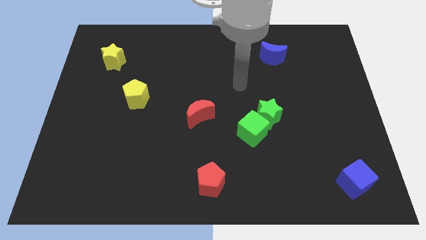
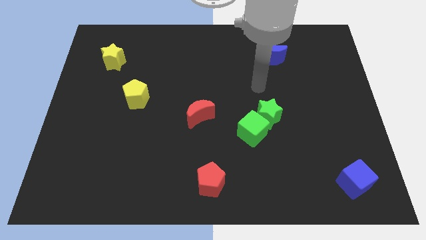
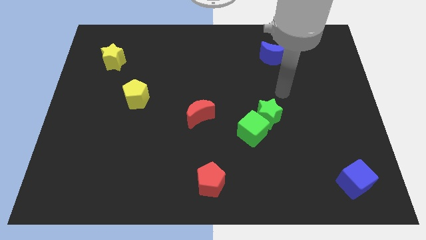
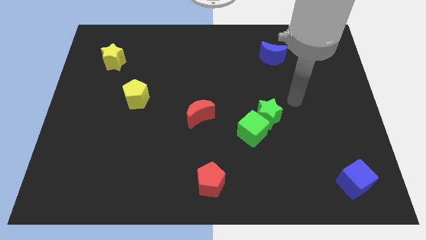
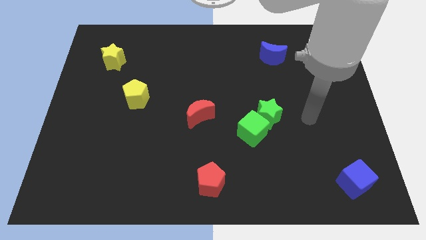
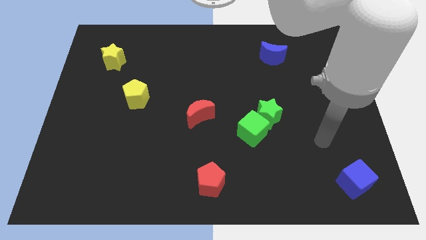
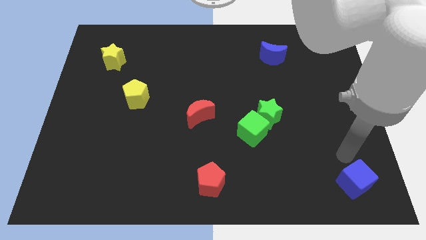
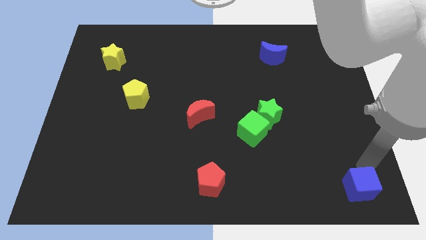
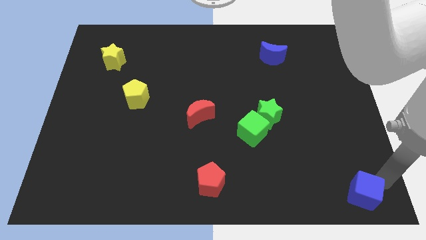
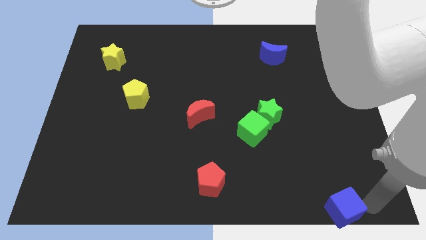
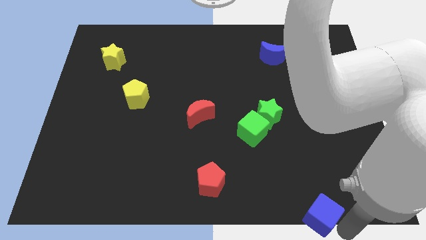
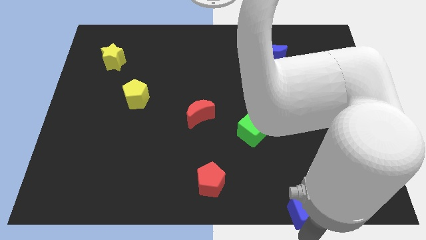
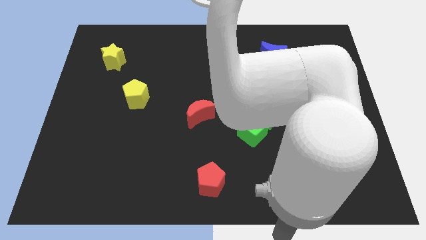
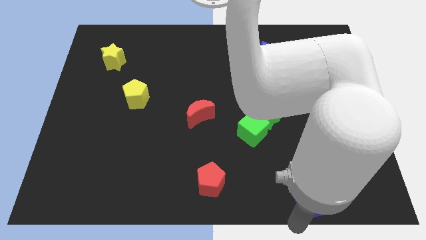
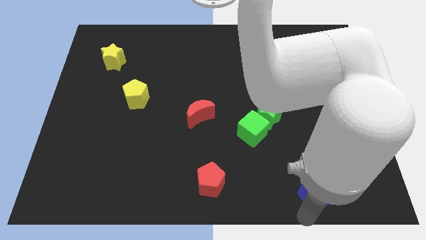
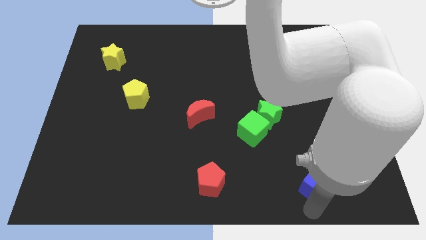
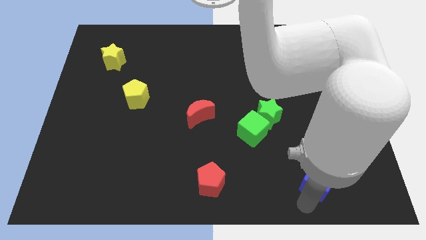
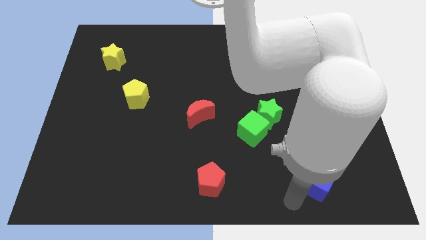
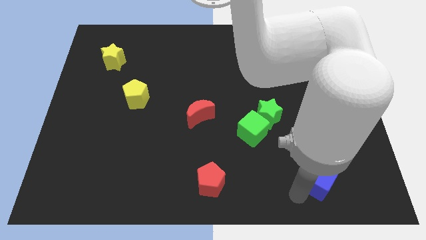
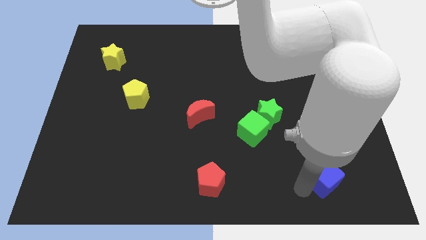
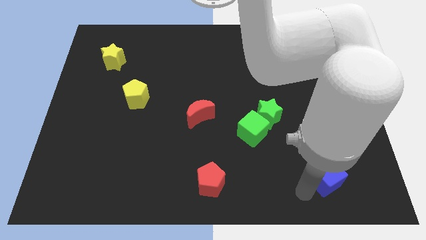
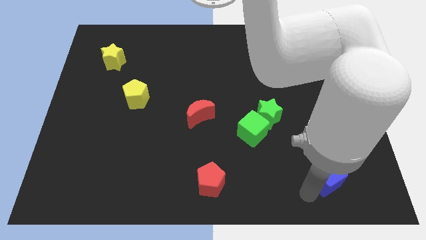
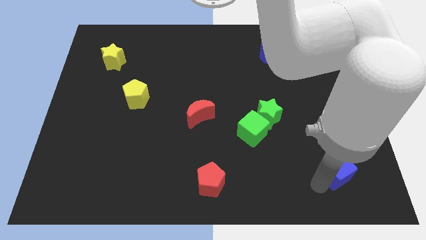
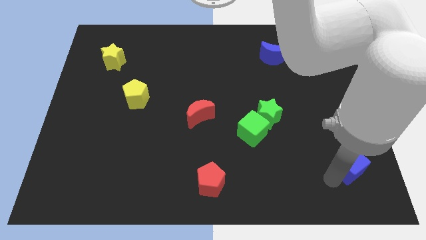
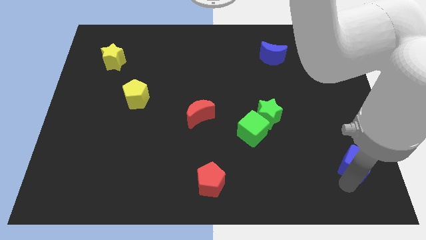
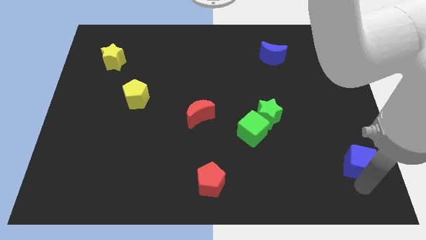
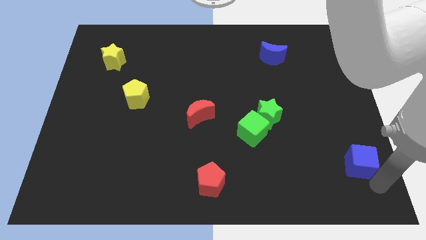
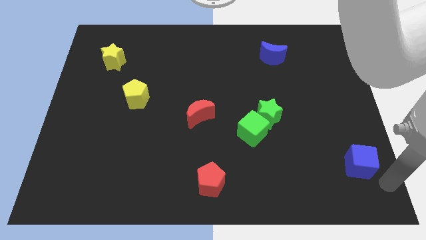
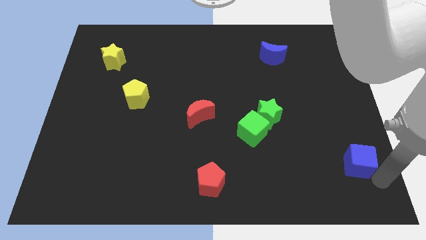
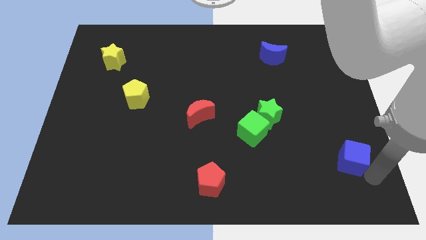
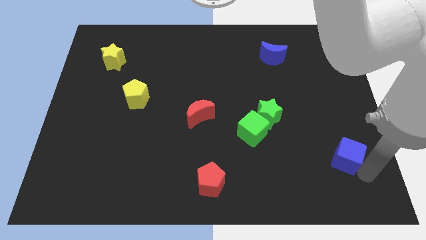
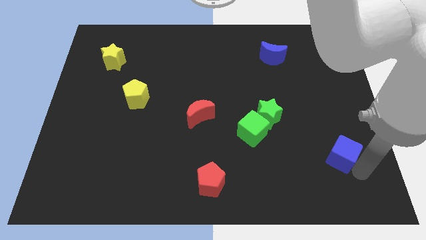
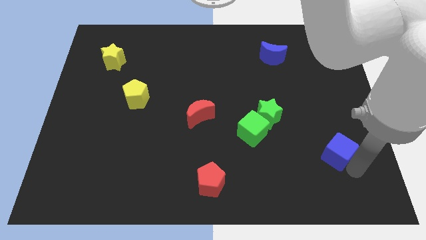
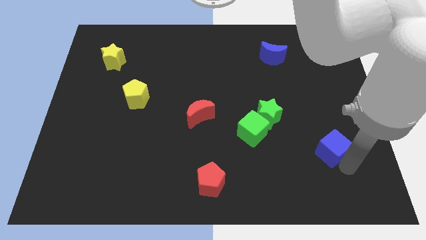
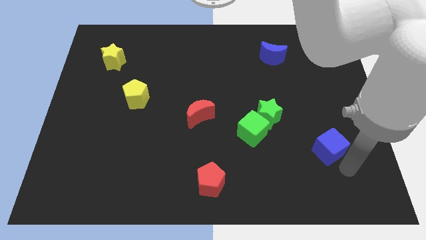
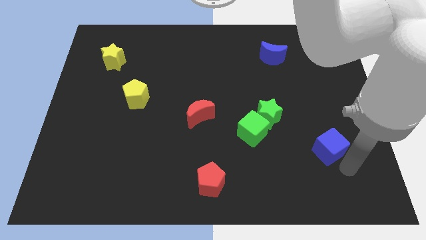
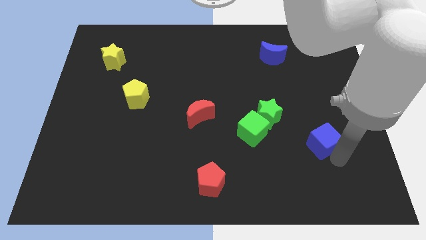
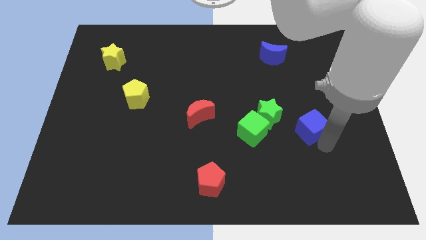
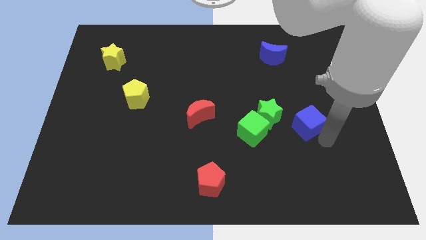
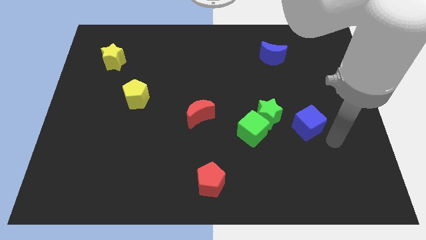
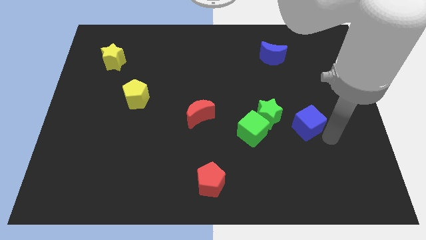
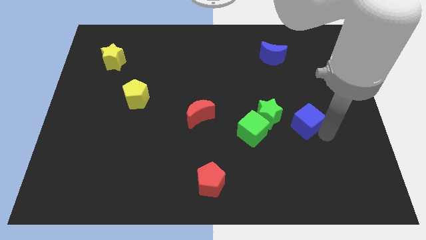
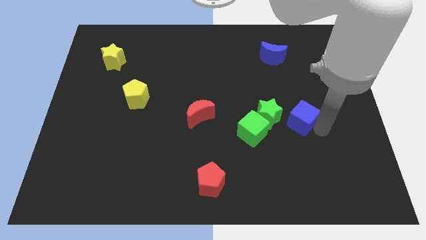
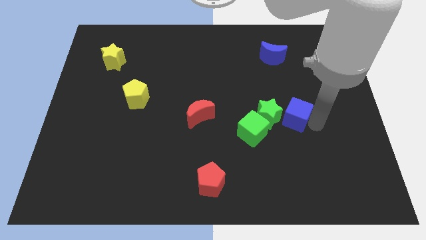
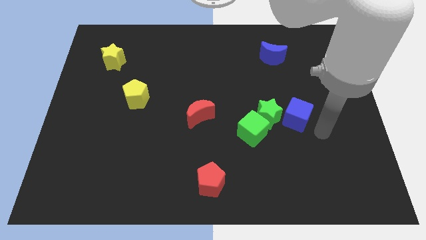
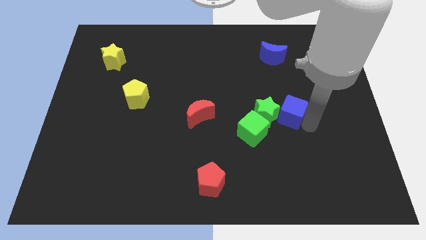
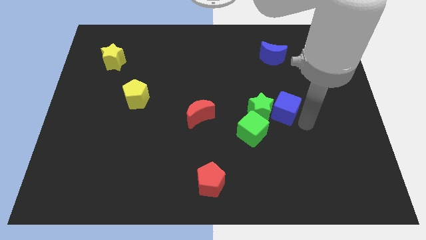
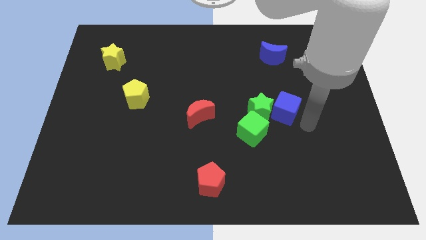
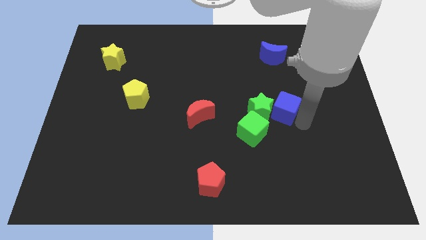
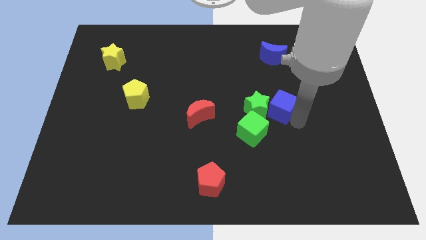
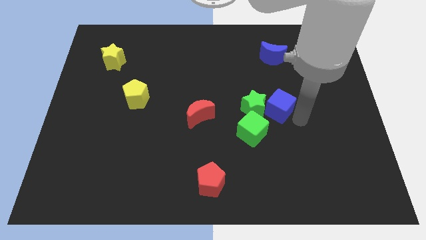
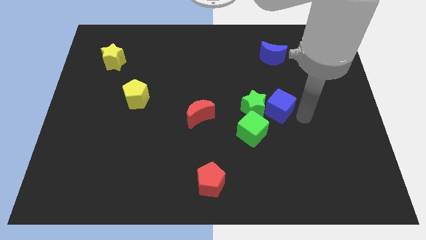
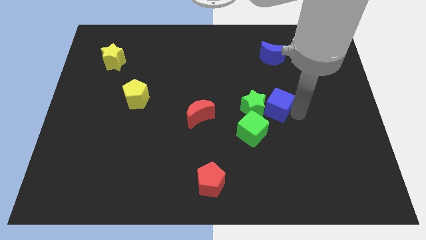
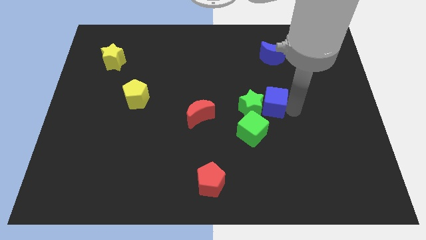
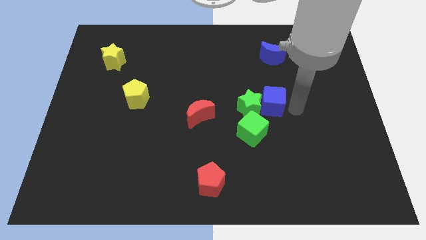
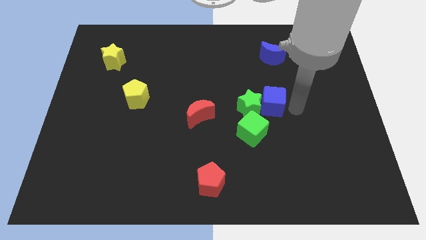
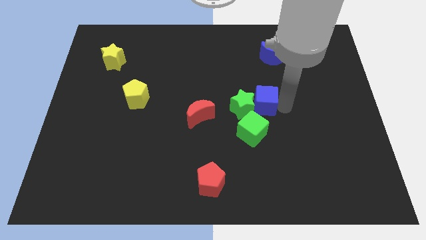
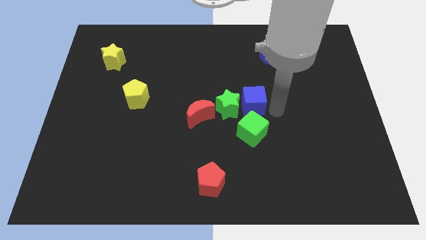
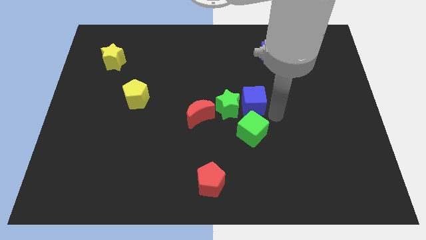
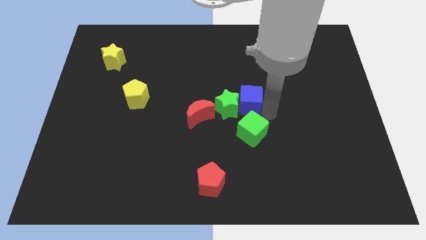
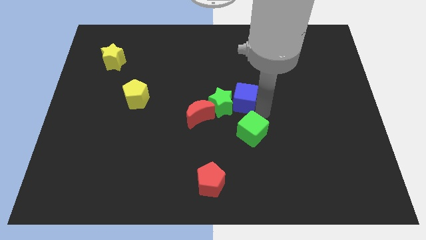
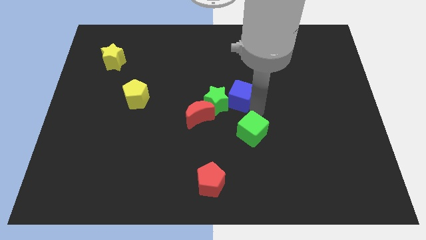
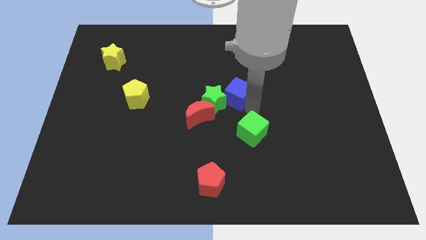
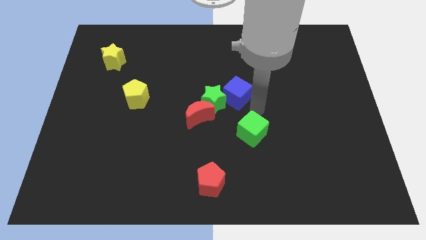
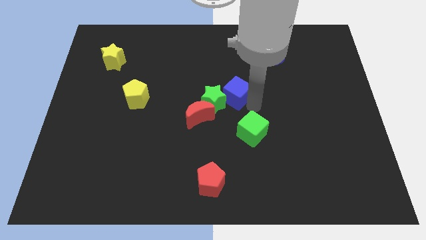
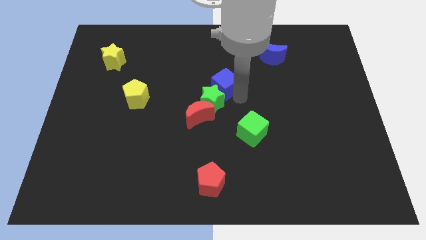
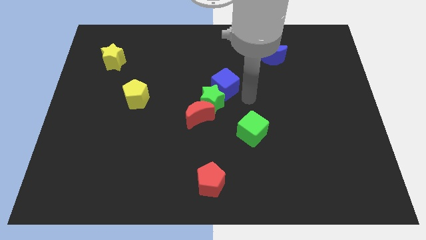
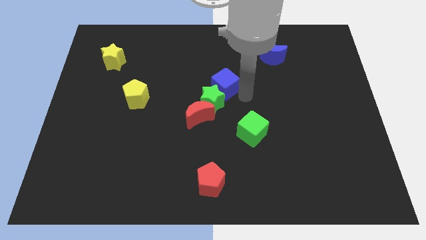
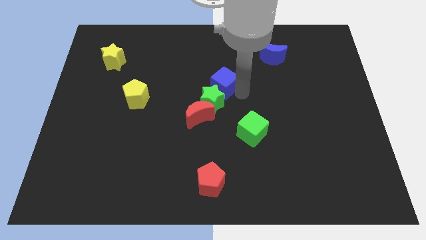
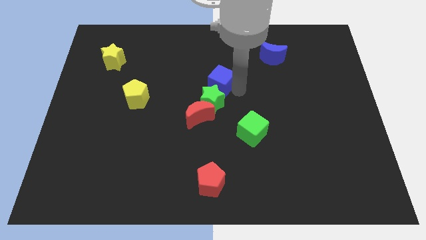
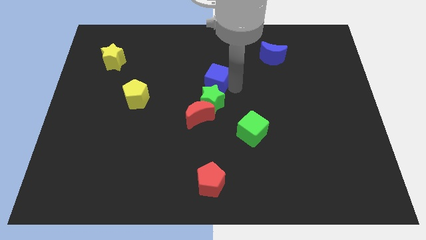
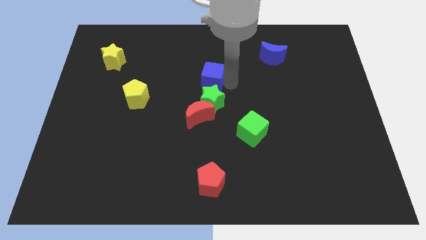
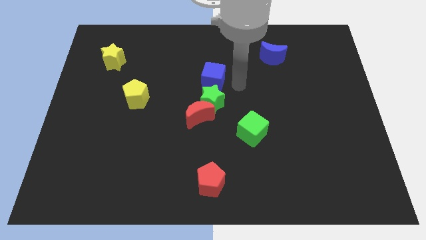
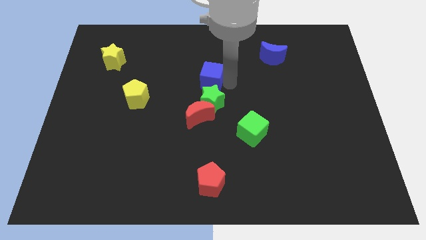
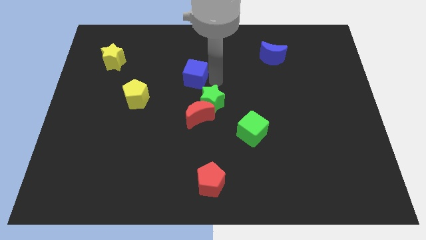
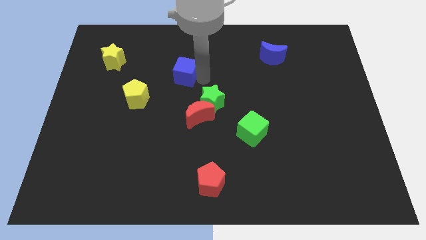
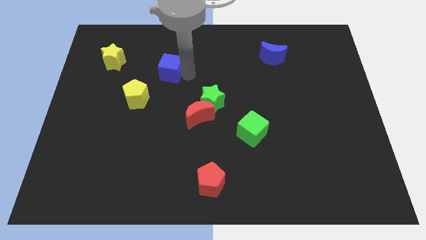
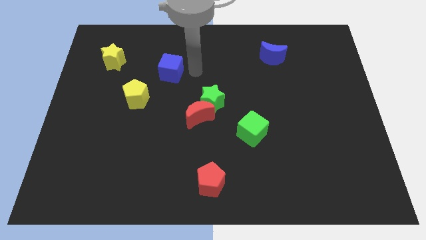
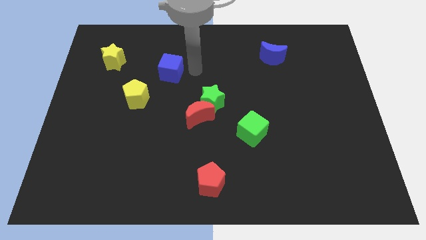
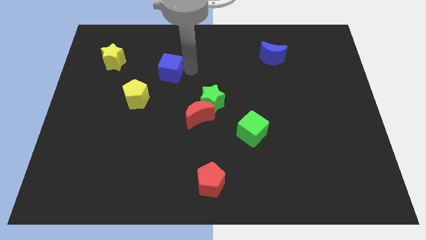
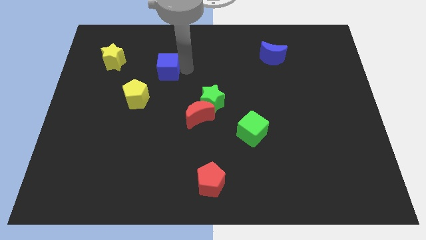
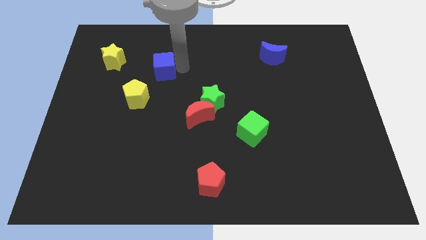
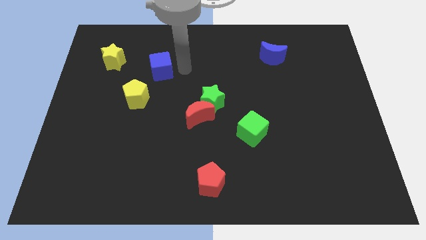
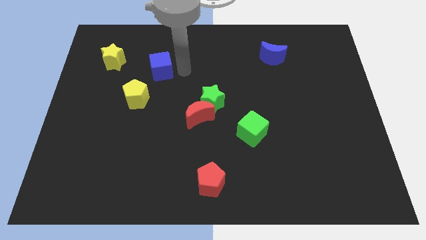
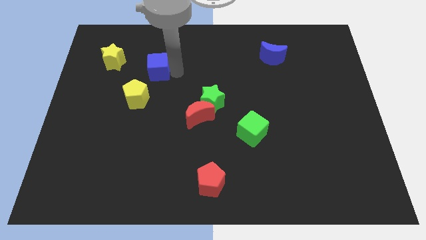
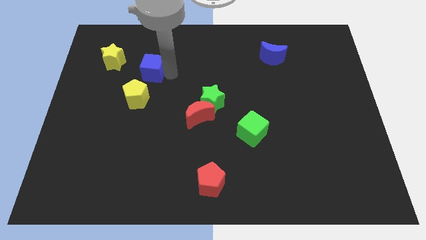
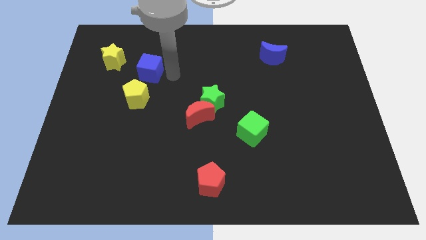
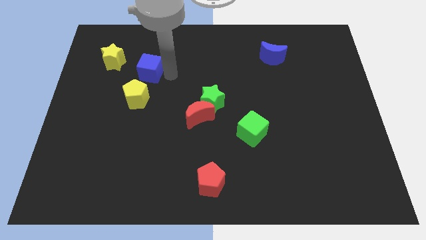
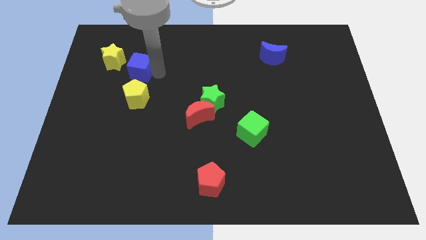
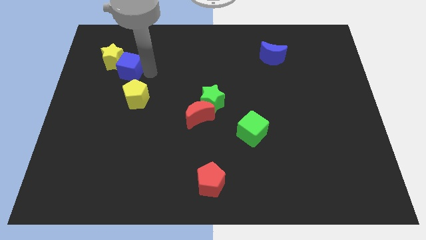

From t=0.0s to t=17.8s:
slide the blue cube towards the yellow star
